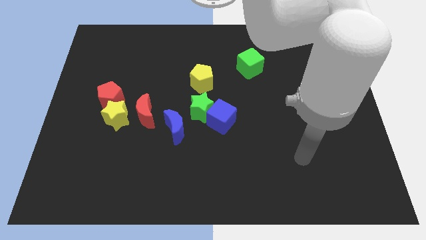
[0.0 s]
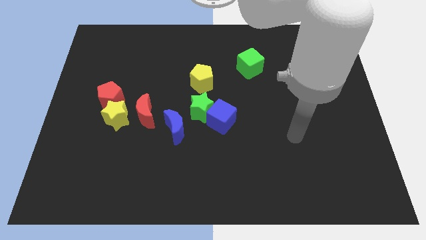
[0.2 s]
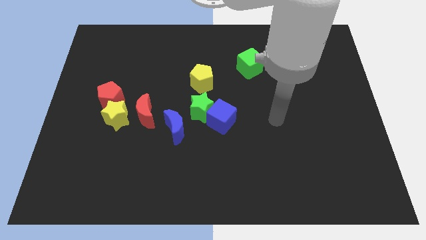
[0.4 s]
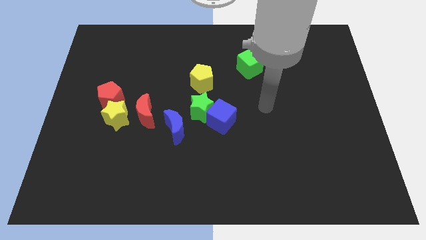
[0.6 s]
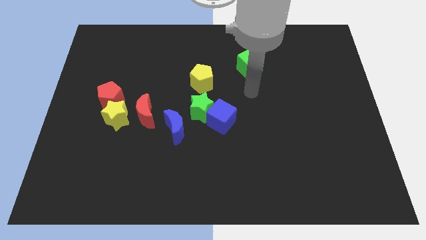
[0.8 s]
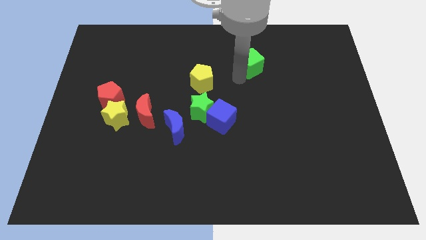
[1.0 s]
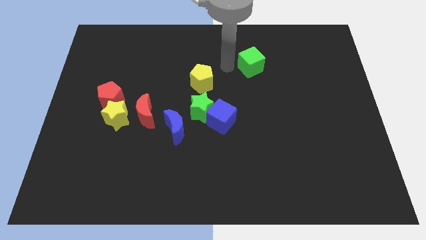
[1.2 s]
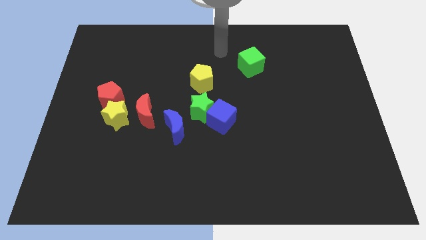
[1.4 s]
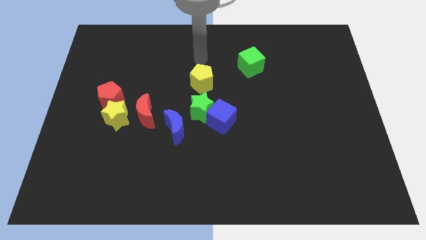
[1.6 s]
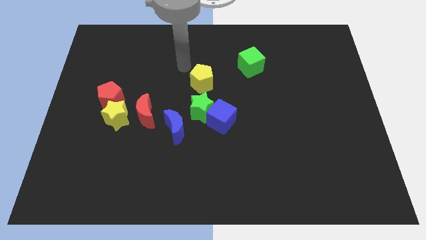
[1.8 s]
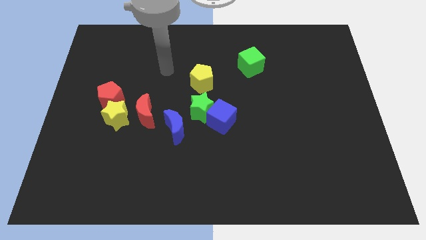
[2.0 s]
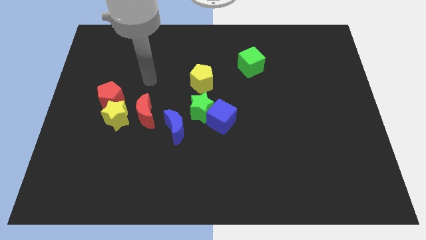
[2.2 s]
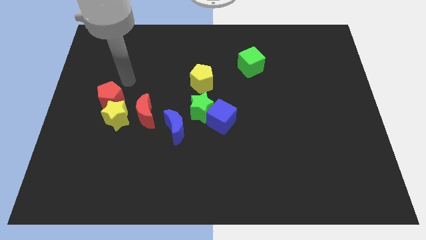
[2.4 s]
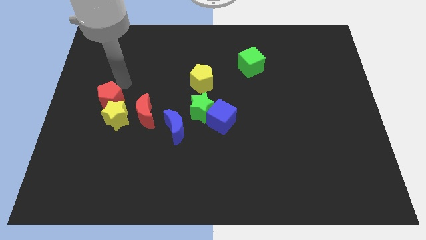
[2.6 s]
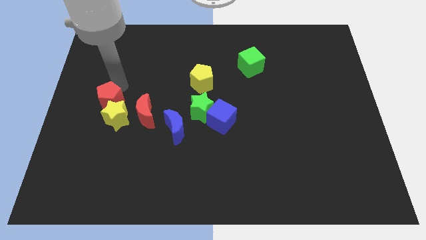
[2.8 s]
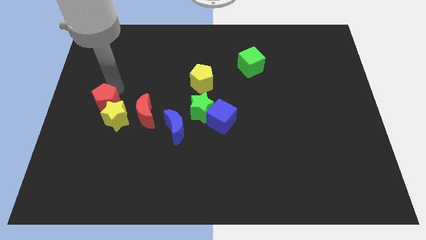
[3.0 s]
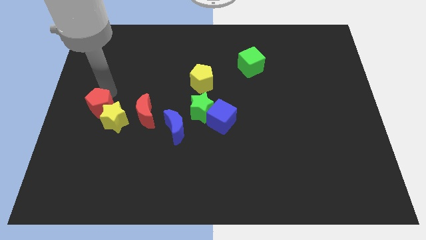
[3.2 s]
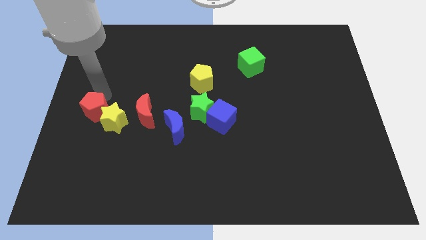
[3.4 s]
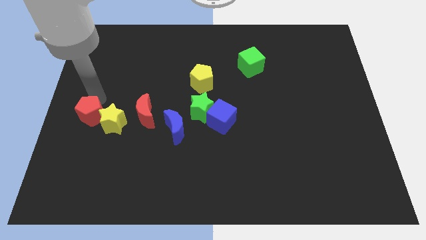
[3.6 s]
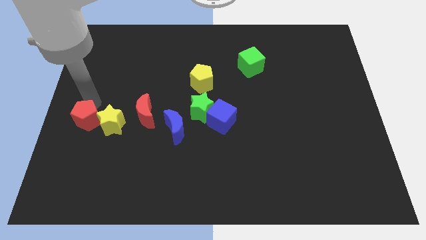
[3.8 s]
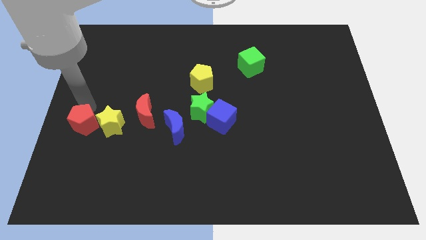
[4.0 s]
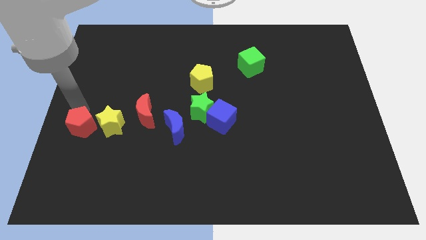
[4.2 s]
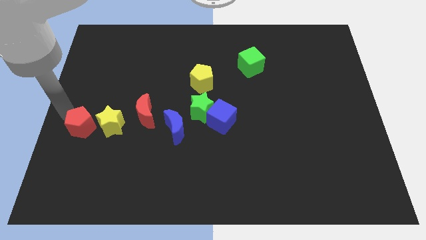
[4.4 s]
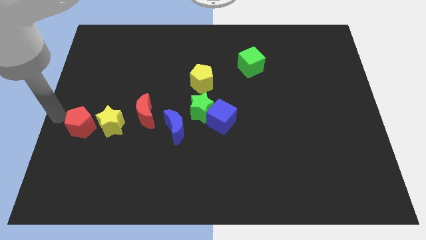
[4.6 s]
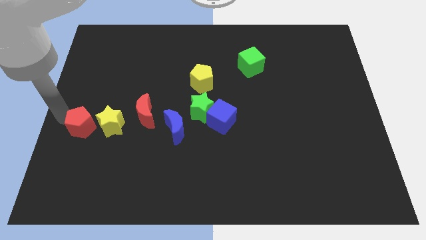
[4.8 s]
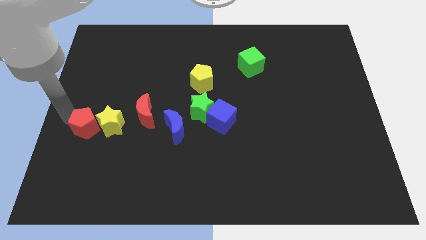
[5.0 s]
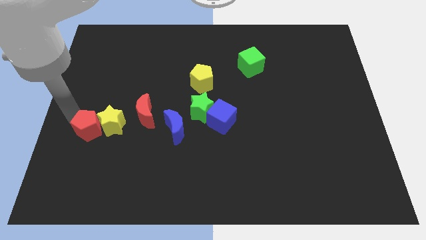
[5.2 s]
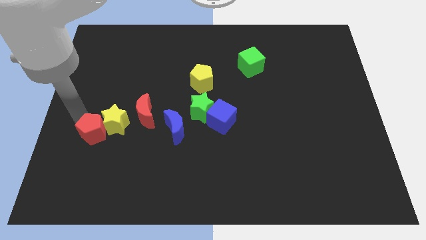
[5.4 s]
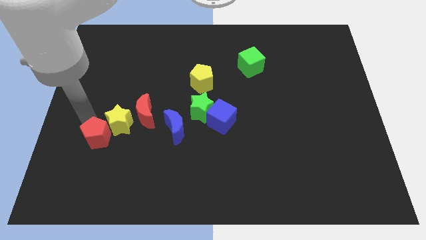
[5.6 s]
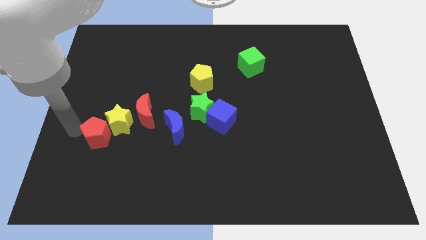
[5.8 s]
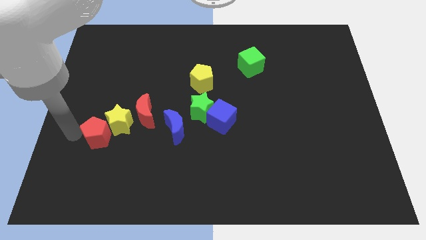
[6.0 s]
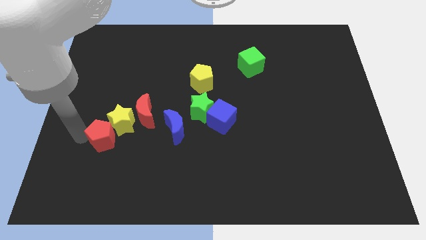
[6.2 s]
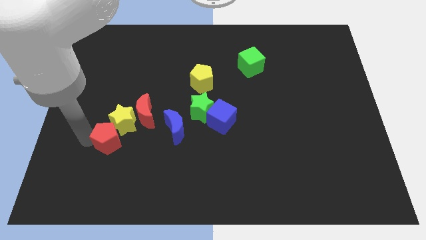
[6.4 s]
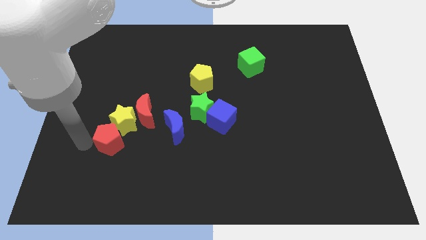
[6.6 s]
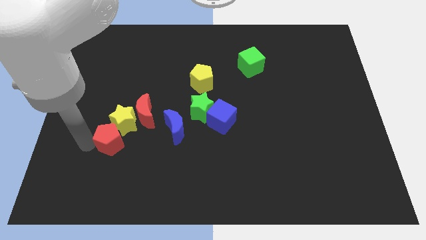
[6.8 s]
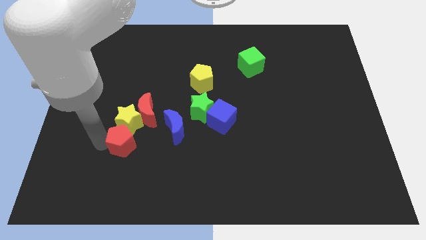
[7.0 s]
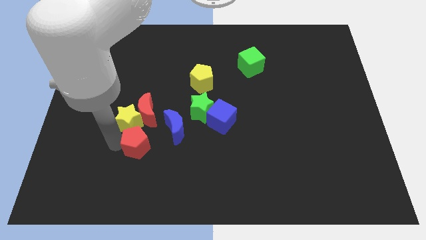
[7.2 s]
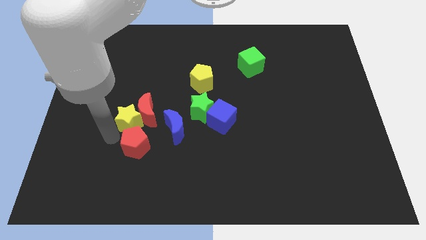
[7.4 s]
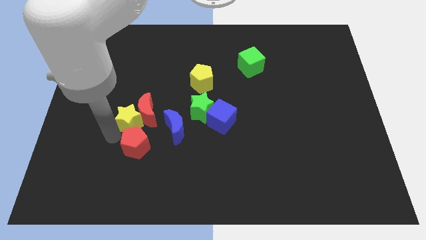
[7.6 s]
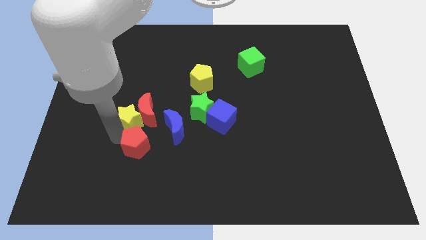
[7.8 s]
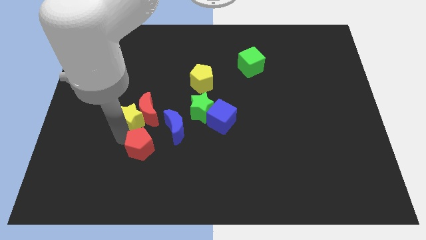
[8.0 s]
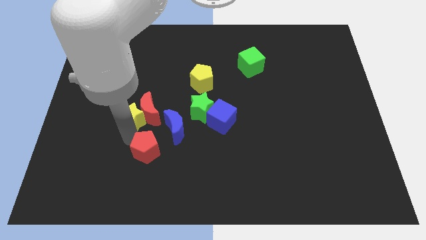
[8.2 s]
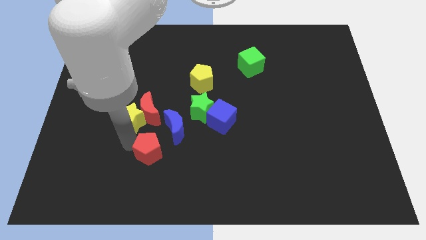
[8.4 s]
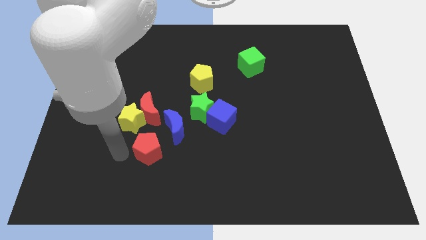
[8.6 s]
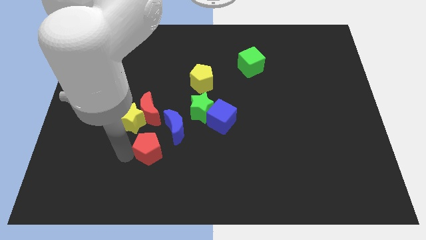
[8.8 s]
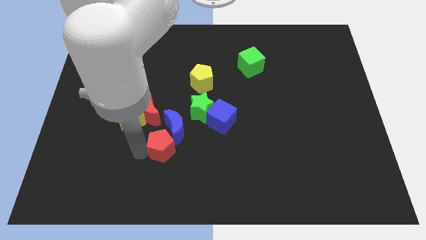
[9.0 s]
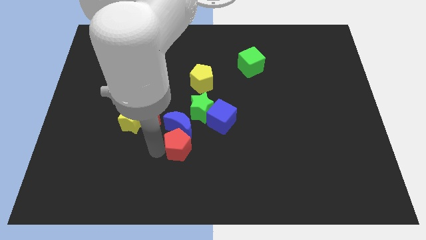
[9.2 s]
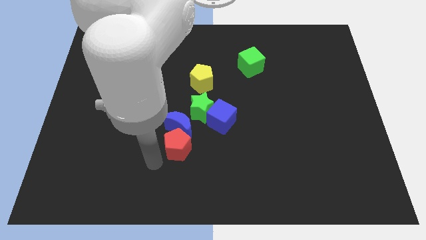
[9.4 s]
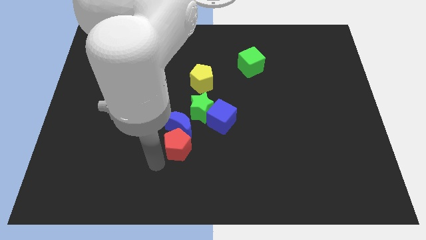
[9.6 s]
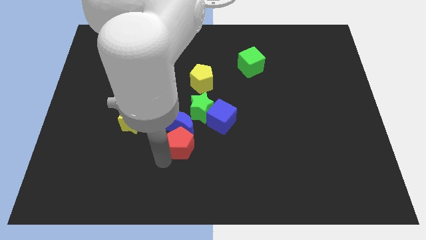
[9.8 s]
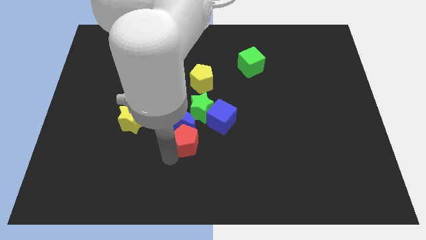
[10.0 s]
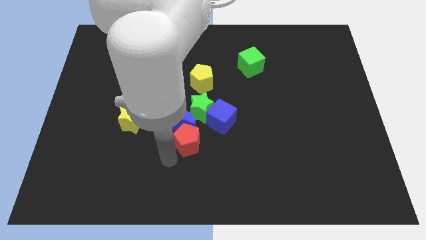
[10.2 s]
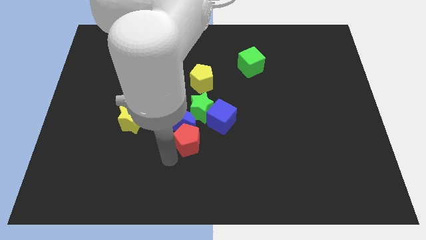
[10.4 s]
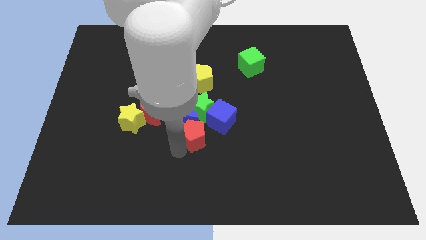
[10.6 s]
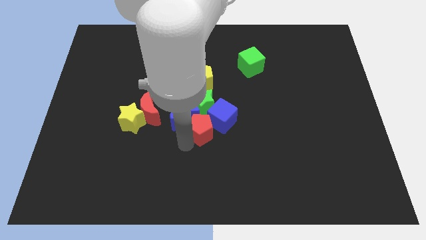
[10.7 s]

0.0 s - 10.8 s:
move the red pentagon next to the blue cube

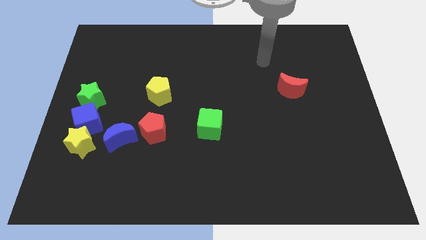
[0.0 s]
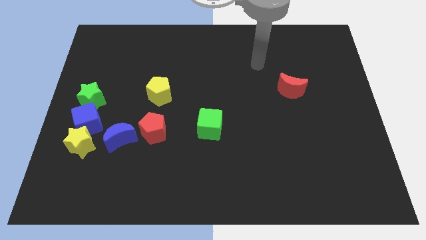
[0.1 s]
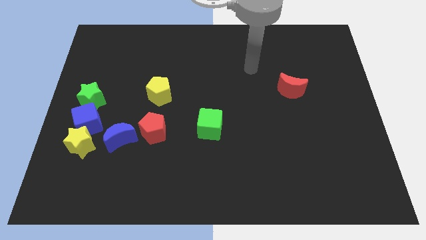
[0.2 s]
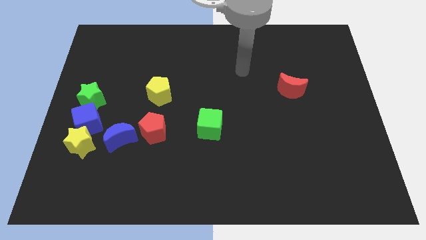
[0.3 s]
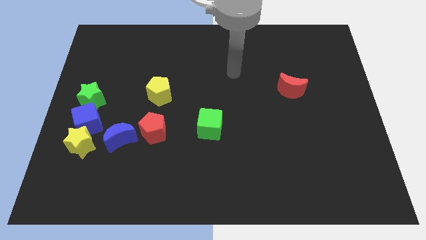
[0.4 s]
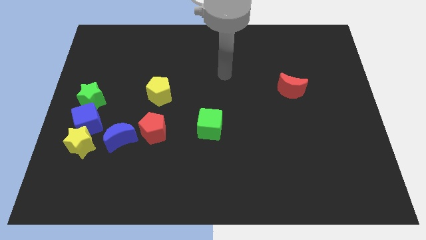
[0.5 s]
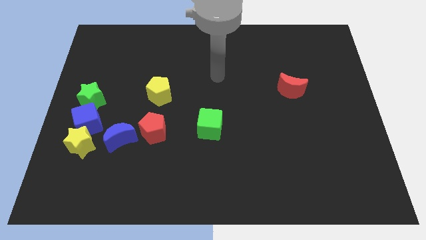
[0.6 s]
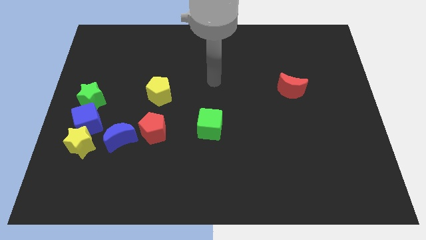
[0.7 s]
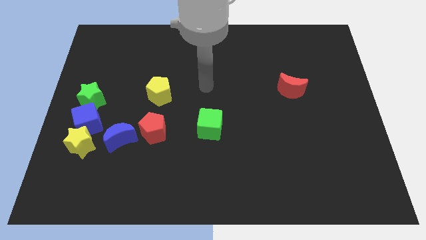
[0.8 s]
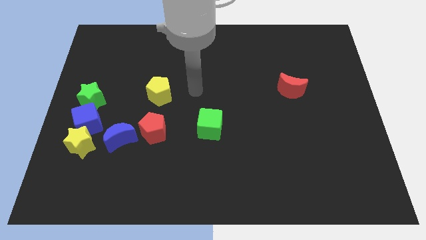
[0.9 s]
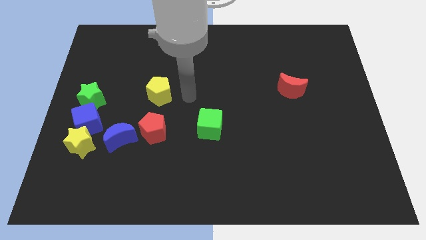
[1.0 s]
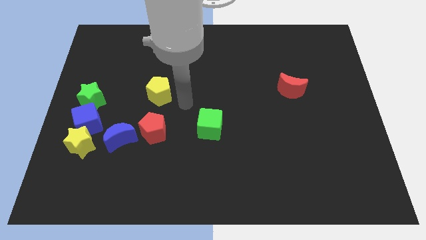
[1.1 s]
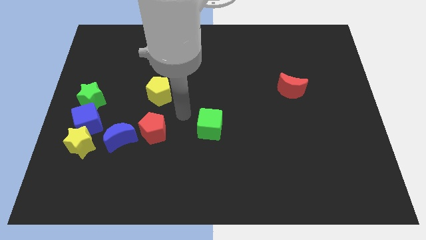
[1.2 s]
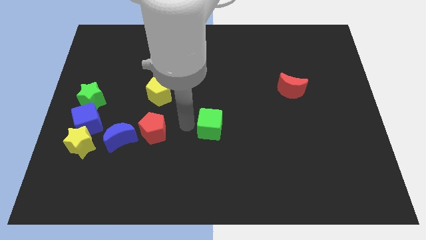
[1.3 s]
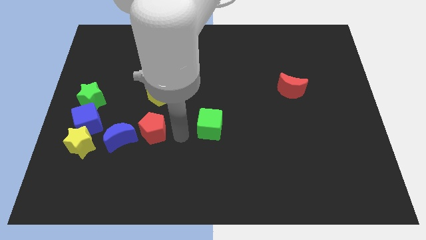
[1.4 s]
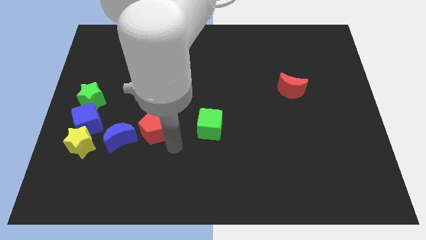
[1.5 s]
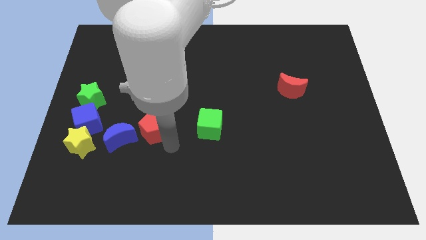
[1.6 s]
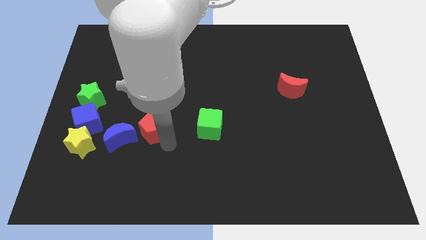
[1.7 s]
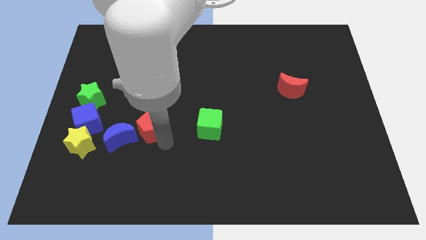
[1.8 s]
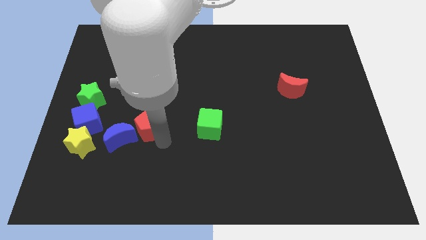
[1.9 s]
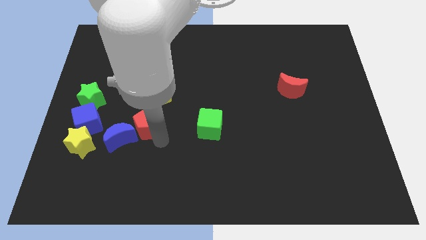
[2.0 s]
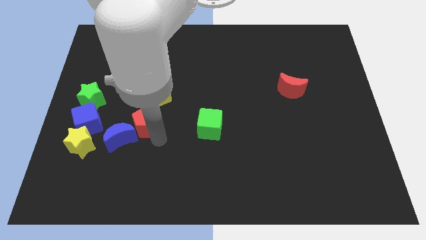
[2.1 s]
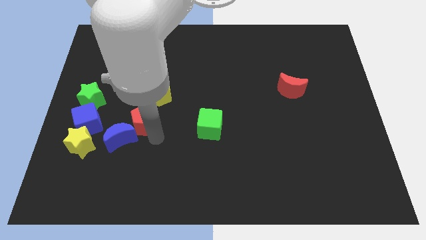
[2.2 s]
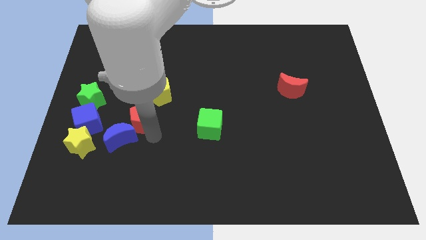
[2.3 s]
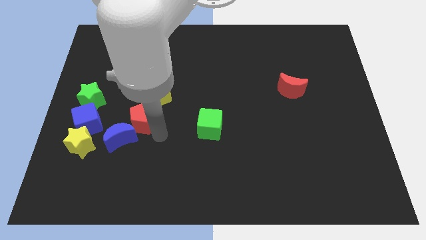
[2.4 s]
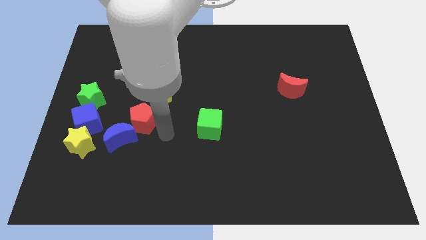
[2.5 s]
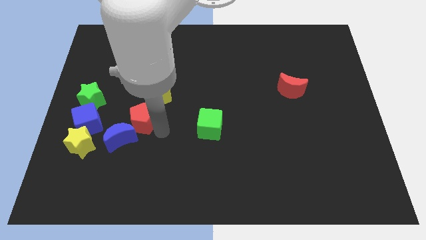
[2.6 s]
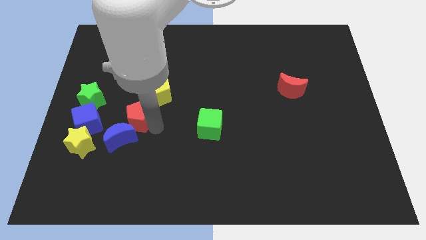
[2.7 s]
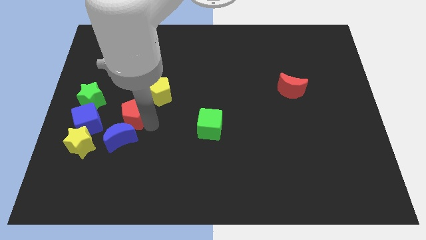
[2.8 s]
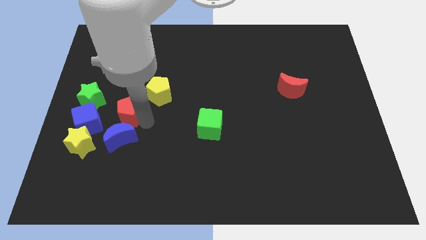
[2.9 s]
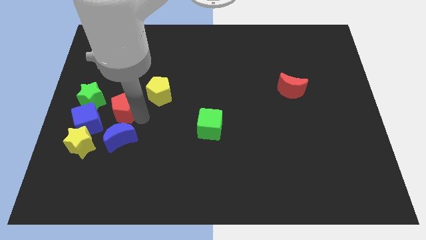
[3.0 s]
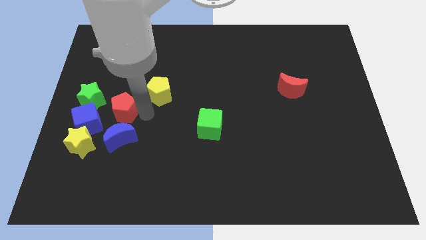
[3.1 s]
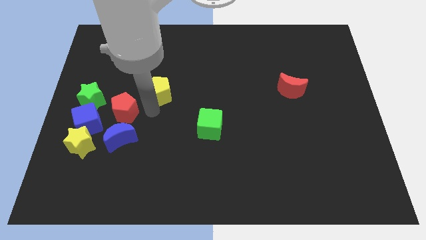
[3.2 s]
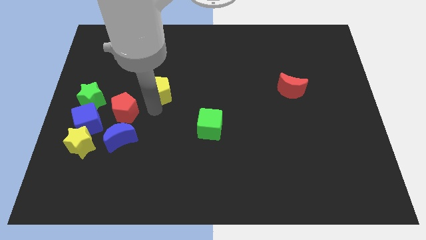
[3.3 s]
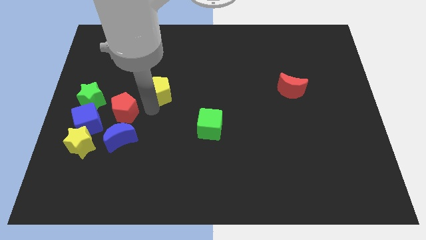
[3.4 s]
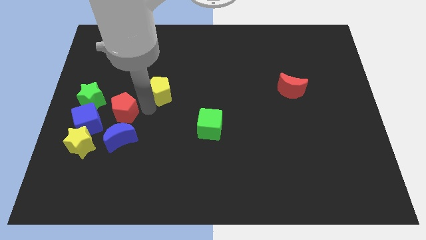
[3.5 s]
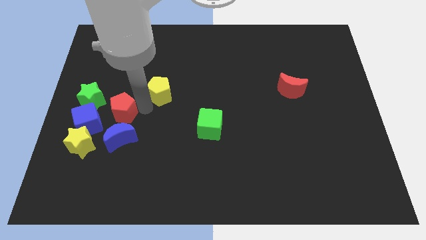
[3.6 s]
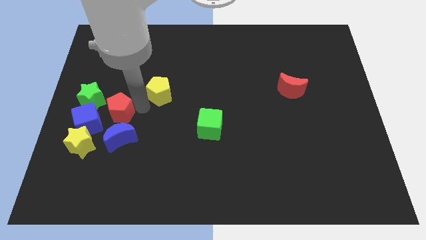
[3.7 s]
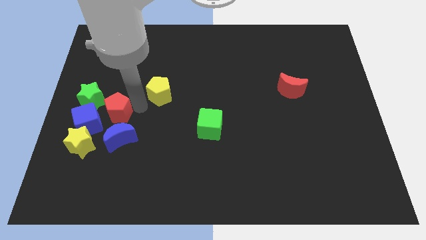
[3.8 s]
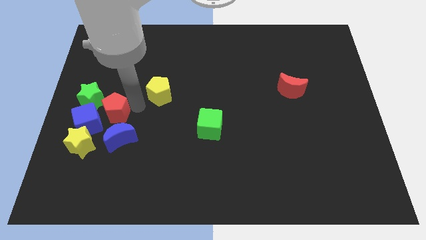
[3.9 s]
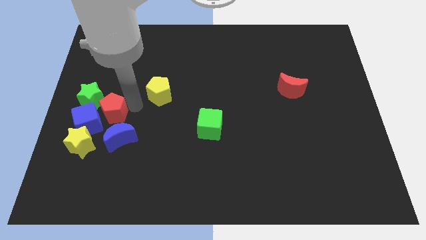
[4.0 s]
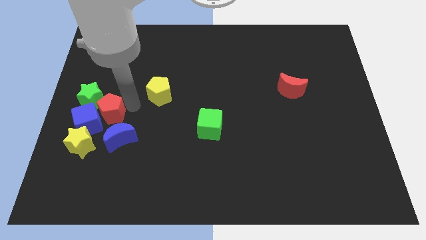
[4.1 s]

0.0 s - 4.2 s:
push the red pentagon close to the blue cube
